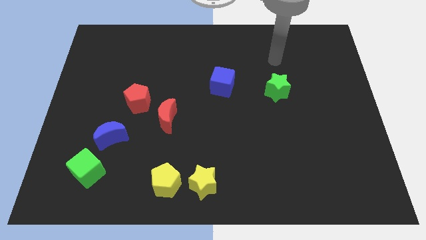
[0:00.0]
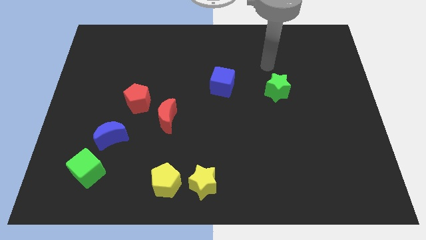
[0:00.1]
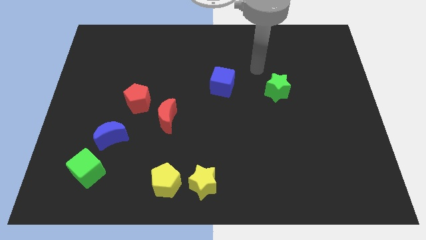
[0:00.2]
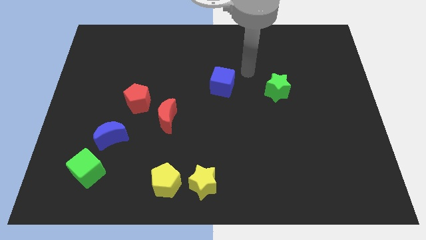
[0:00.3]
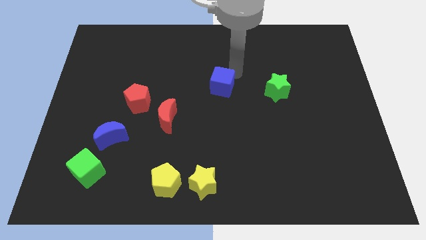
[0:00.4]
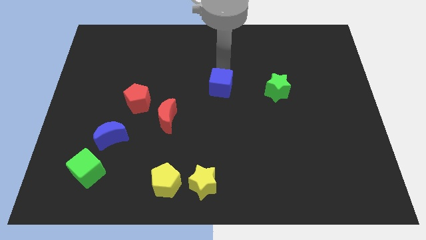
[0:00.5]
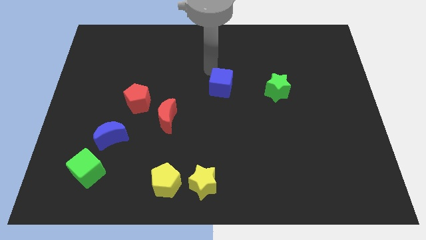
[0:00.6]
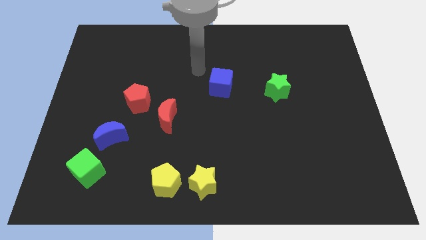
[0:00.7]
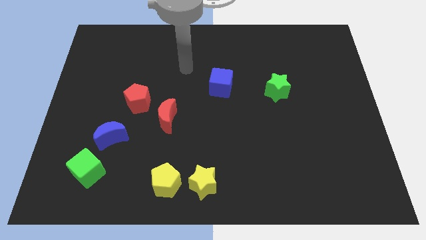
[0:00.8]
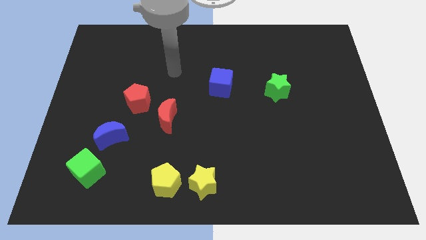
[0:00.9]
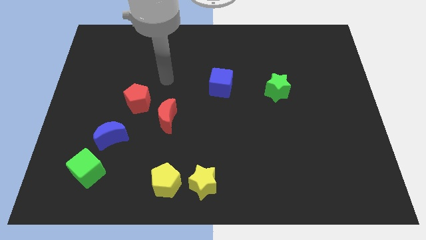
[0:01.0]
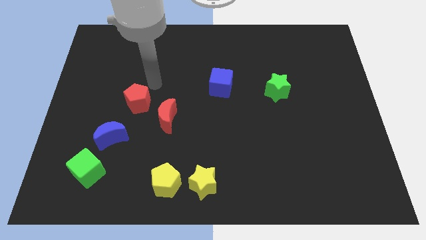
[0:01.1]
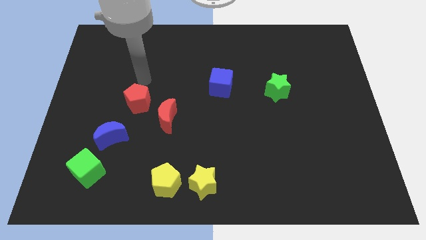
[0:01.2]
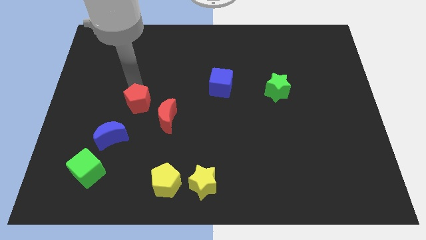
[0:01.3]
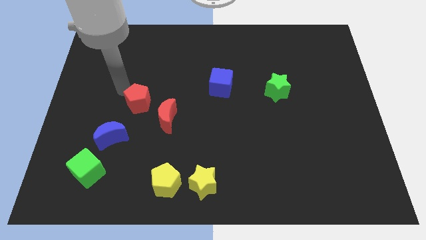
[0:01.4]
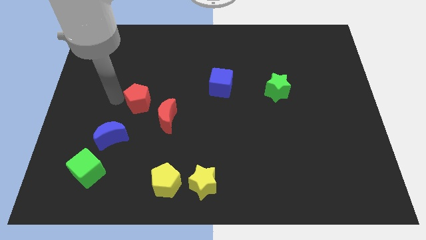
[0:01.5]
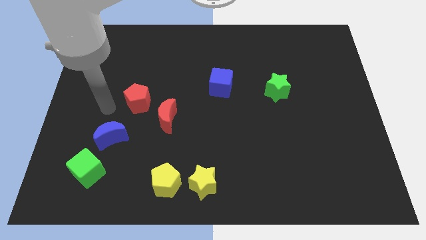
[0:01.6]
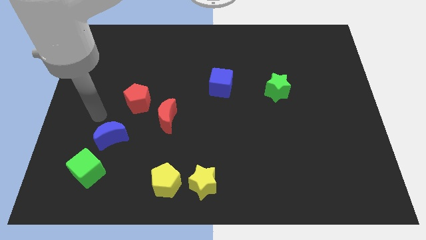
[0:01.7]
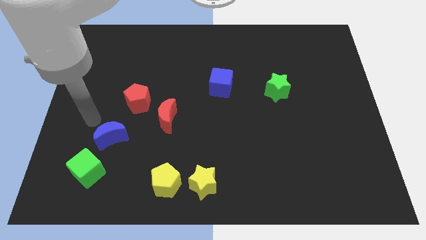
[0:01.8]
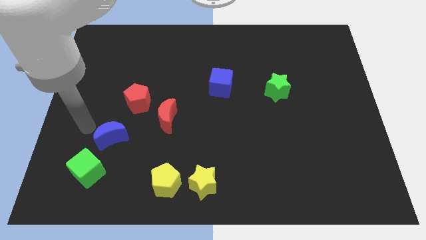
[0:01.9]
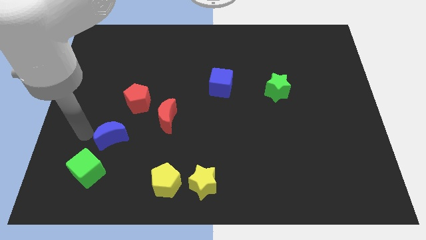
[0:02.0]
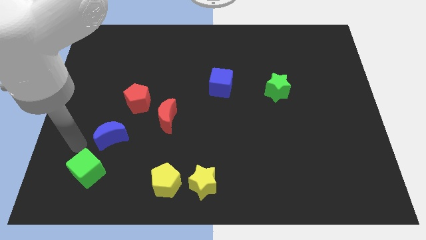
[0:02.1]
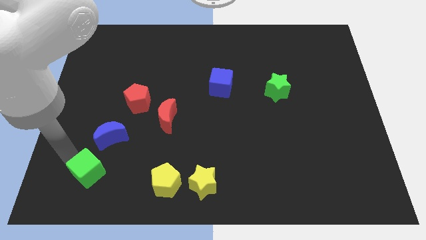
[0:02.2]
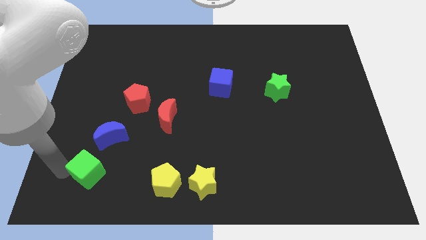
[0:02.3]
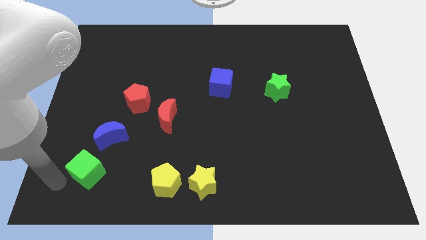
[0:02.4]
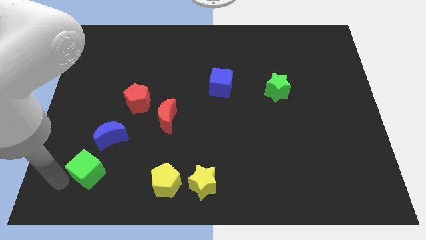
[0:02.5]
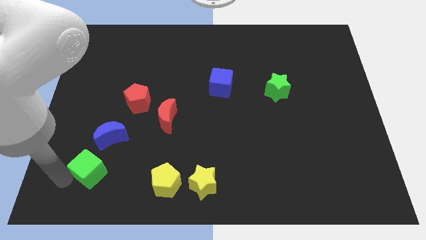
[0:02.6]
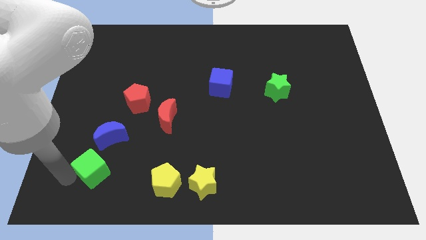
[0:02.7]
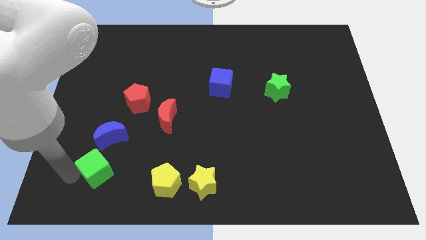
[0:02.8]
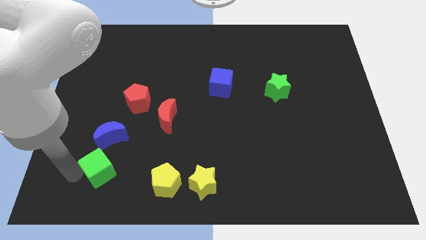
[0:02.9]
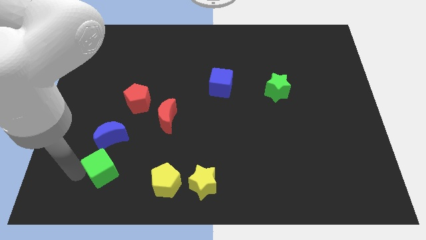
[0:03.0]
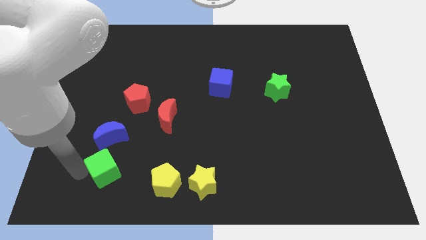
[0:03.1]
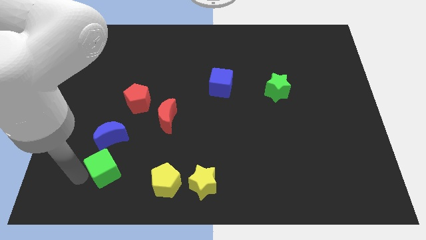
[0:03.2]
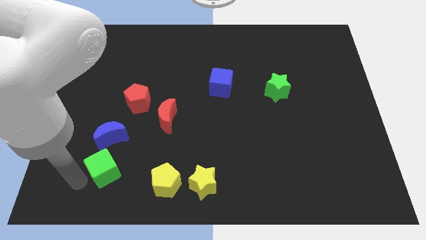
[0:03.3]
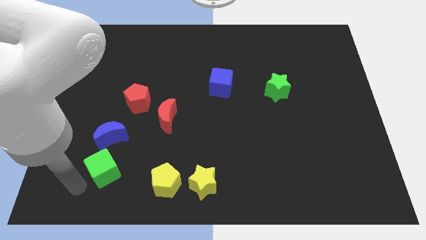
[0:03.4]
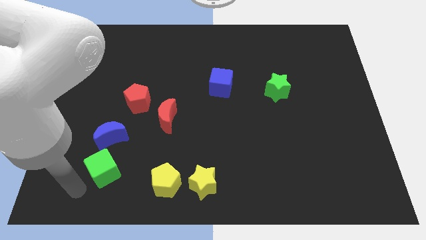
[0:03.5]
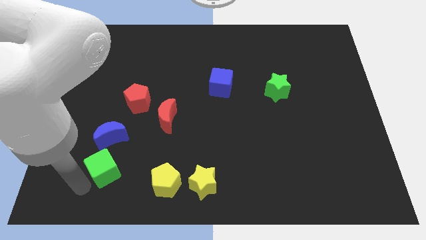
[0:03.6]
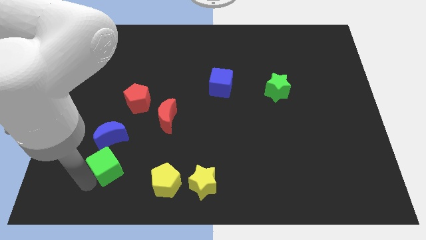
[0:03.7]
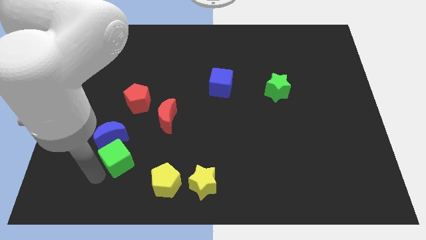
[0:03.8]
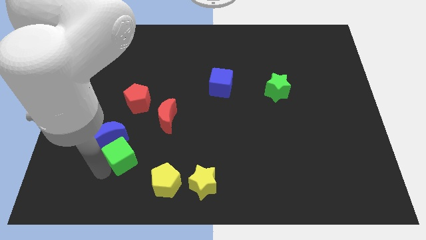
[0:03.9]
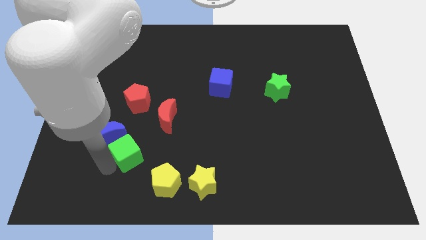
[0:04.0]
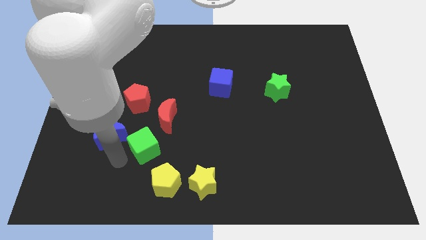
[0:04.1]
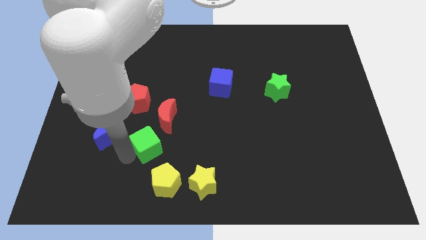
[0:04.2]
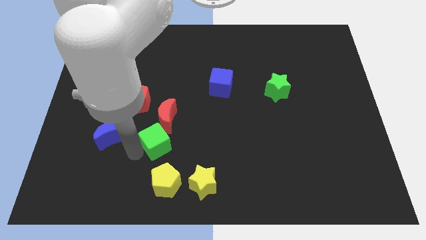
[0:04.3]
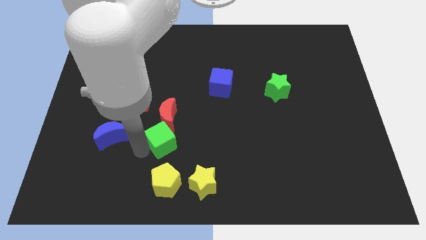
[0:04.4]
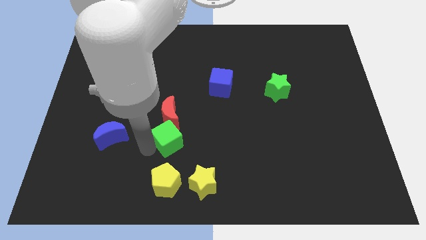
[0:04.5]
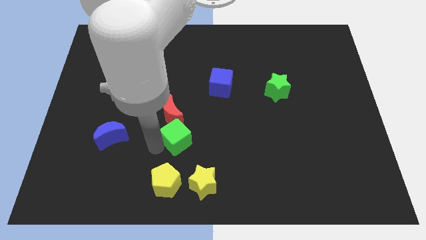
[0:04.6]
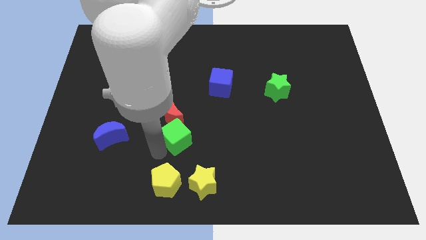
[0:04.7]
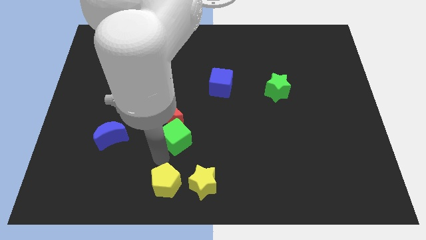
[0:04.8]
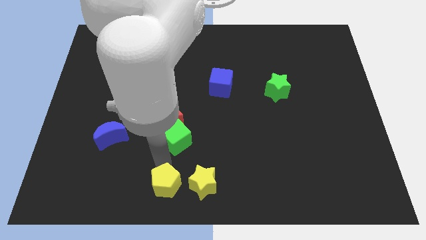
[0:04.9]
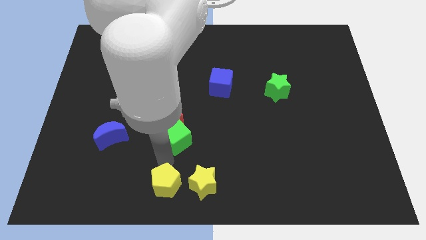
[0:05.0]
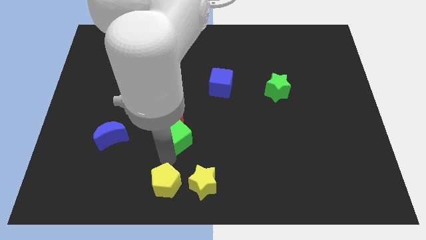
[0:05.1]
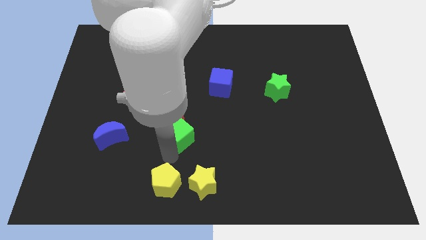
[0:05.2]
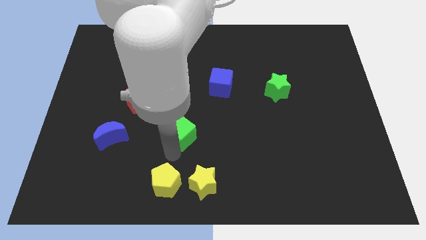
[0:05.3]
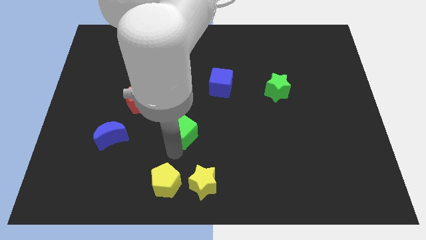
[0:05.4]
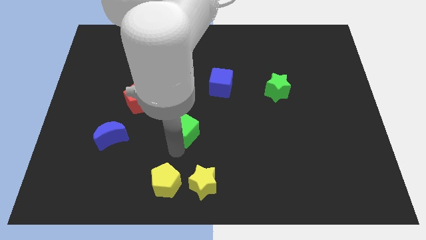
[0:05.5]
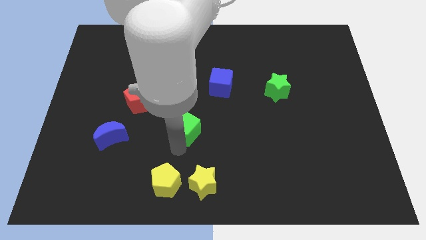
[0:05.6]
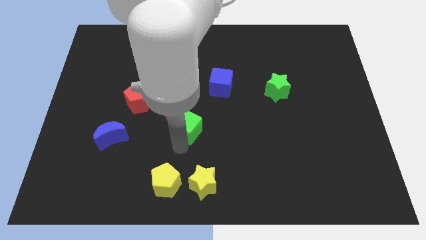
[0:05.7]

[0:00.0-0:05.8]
slide the green cube diagonally upwards and to the right

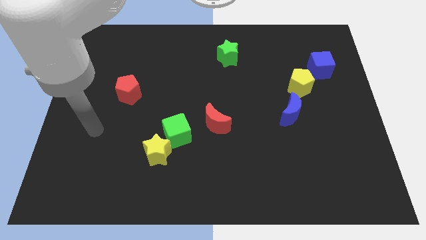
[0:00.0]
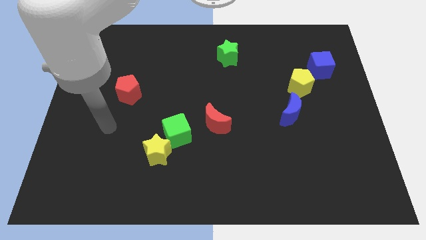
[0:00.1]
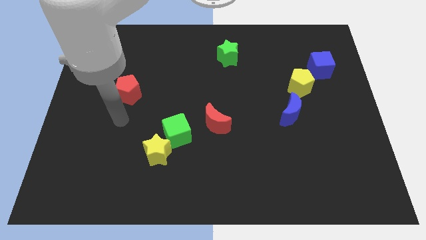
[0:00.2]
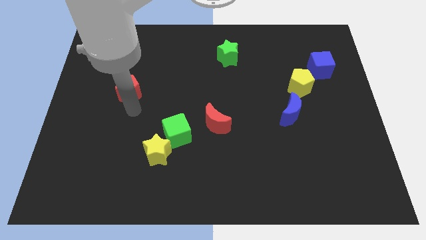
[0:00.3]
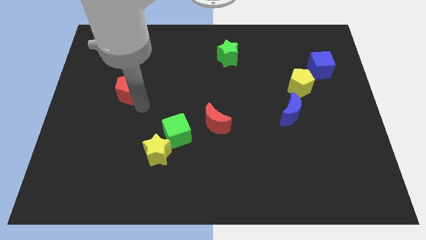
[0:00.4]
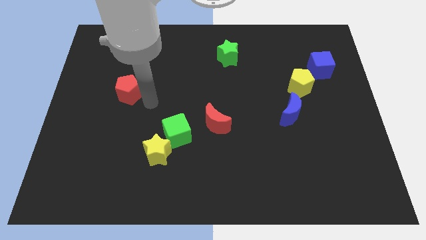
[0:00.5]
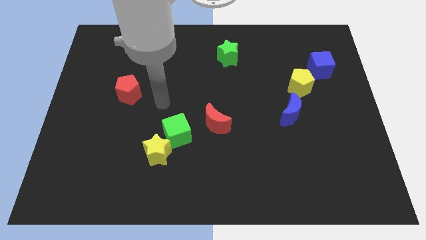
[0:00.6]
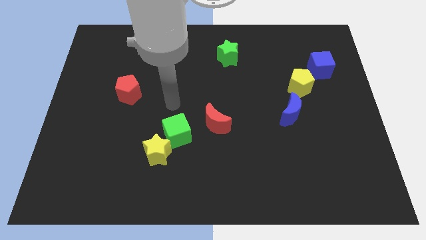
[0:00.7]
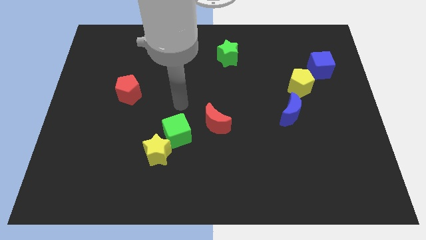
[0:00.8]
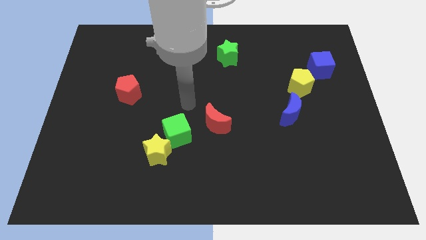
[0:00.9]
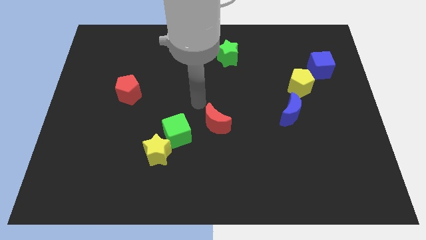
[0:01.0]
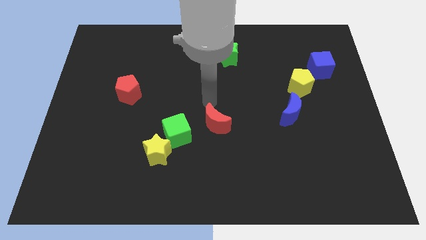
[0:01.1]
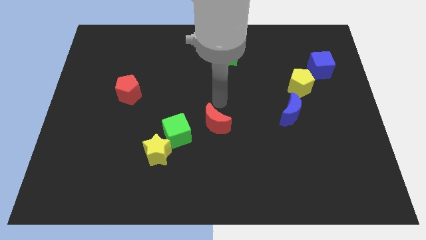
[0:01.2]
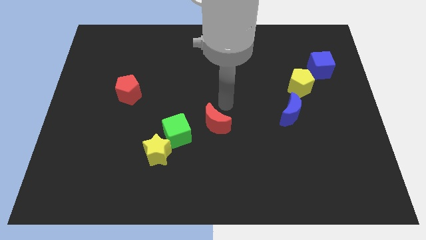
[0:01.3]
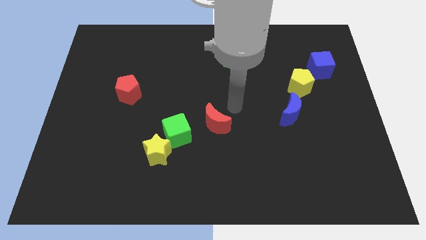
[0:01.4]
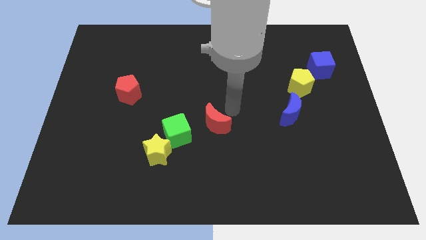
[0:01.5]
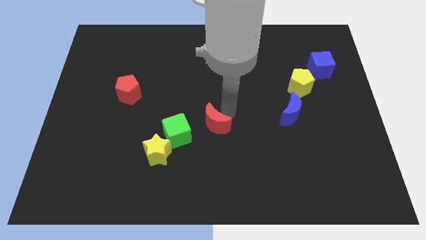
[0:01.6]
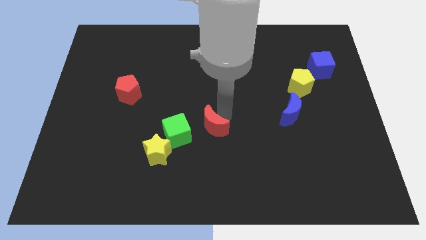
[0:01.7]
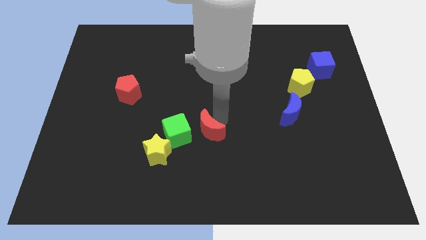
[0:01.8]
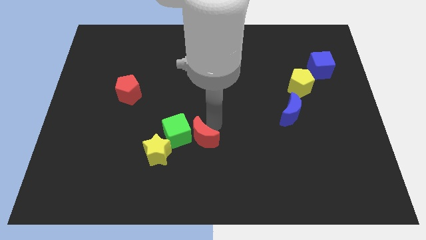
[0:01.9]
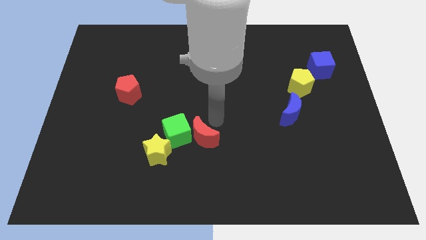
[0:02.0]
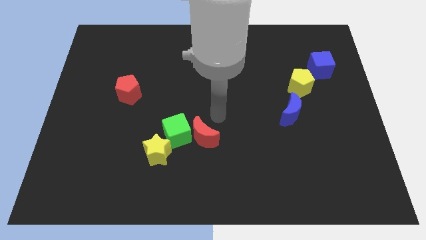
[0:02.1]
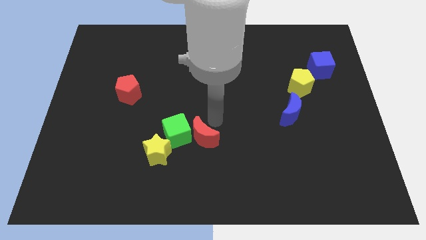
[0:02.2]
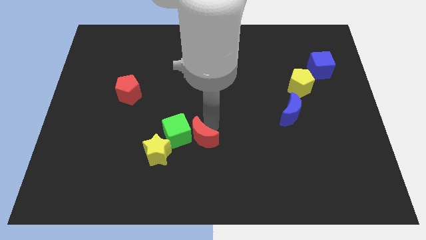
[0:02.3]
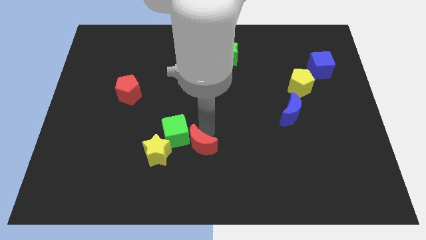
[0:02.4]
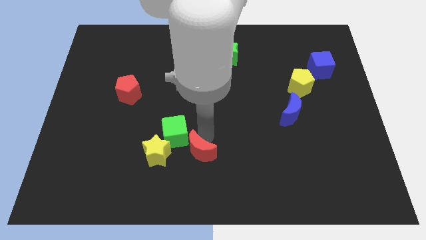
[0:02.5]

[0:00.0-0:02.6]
push the red moon downwards and to the left a bit
